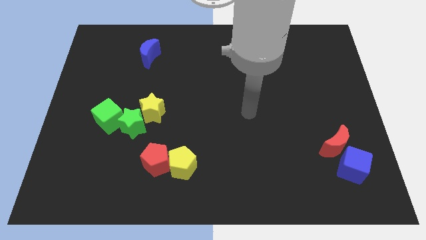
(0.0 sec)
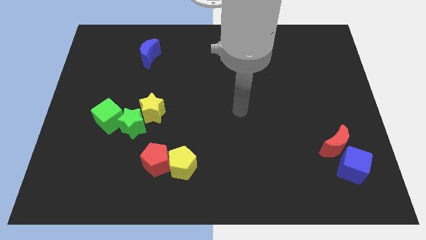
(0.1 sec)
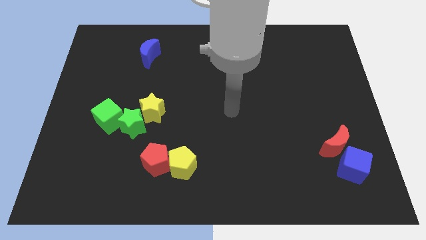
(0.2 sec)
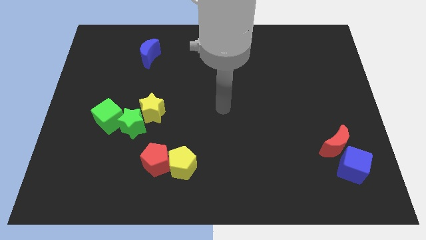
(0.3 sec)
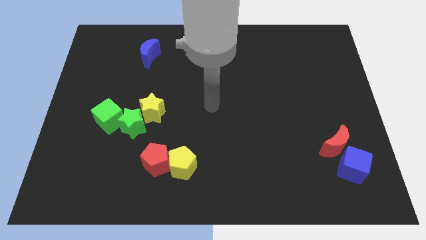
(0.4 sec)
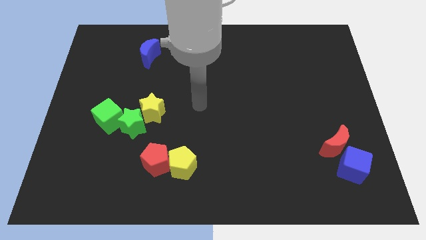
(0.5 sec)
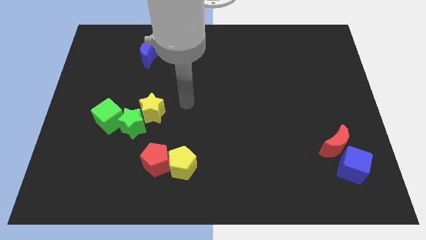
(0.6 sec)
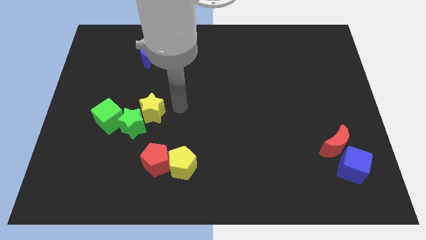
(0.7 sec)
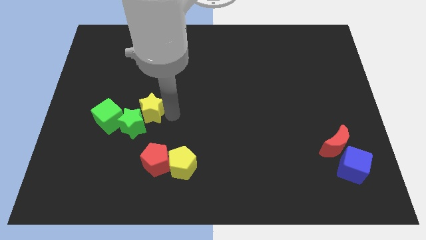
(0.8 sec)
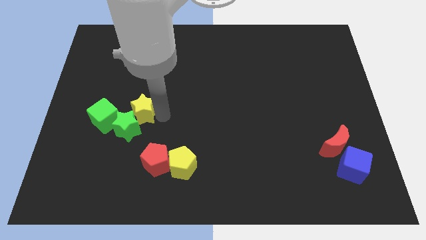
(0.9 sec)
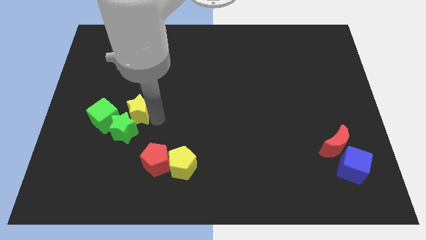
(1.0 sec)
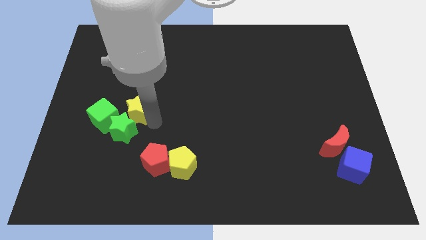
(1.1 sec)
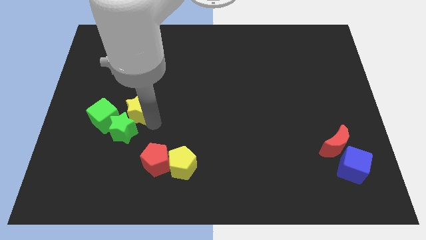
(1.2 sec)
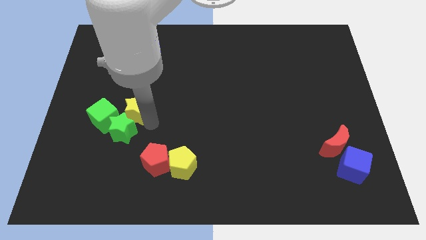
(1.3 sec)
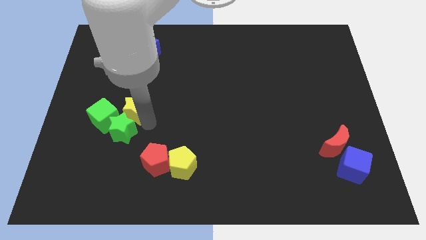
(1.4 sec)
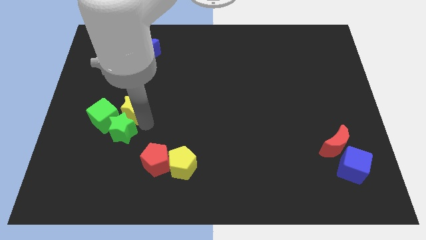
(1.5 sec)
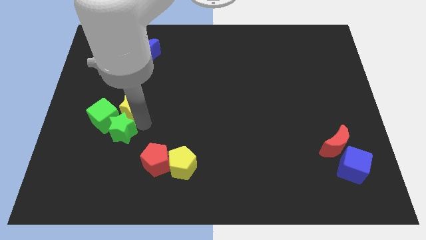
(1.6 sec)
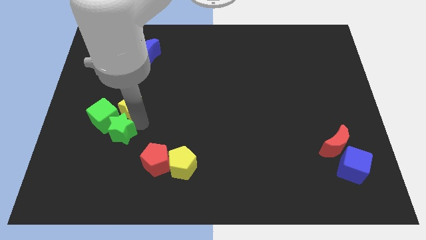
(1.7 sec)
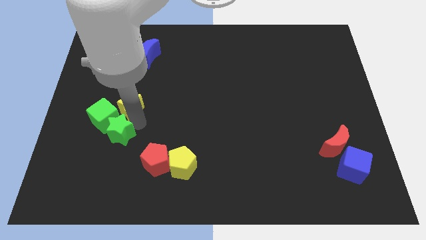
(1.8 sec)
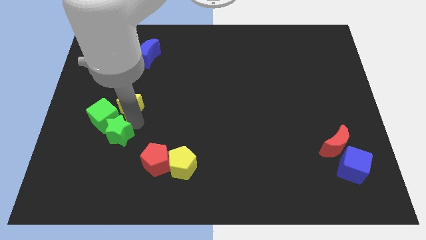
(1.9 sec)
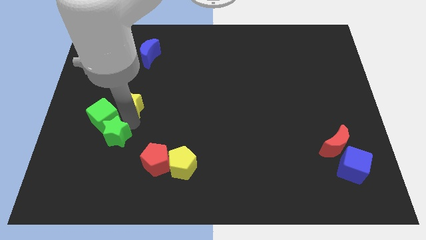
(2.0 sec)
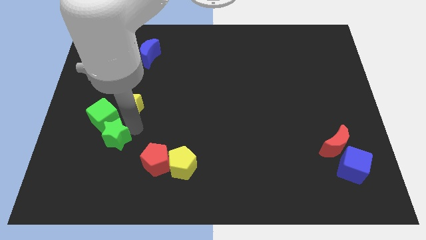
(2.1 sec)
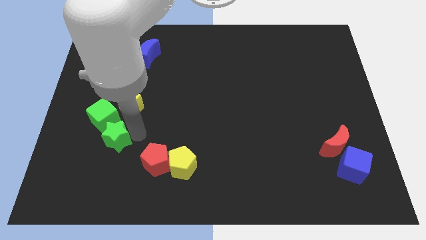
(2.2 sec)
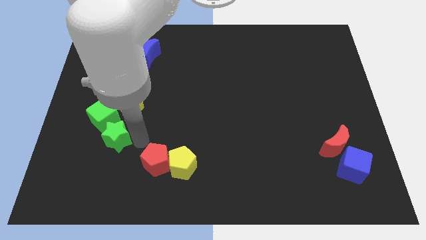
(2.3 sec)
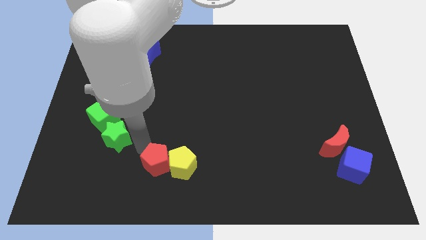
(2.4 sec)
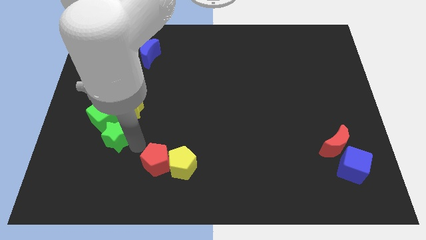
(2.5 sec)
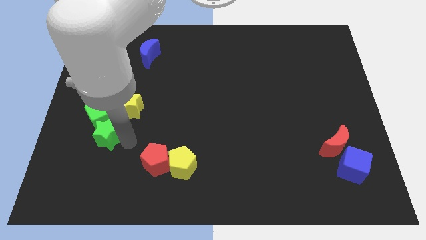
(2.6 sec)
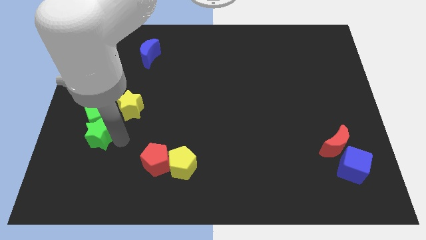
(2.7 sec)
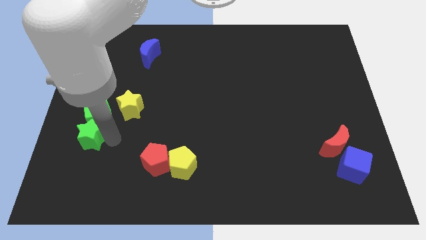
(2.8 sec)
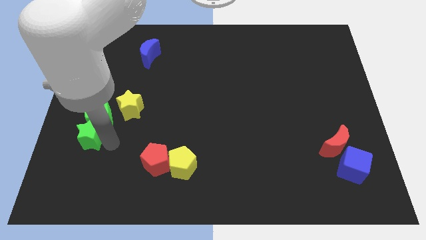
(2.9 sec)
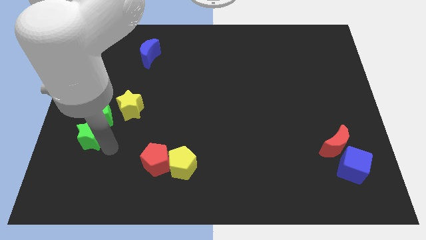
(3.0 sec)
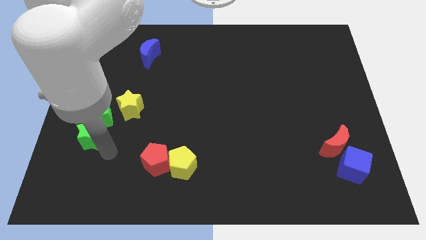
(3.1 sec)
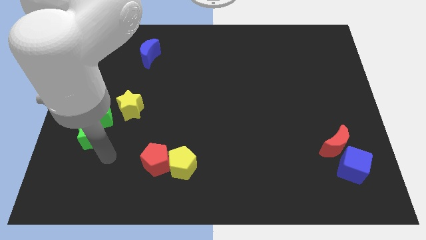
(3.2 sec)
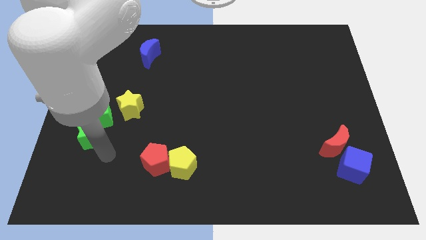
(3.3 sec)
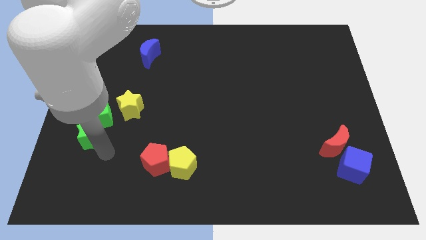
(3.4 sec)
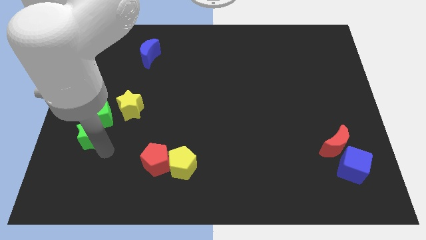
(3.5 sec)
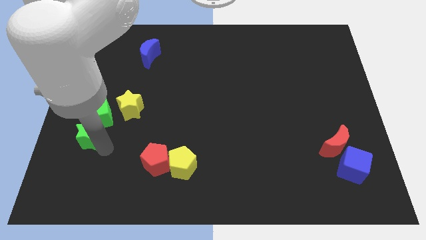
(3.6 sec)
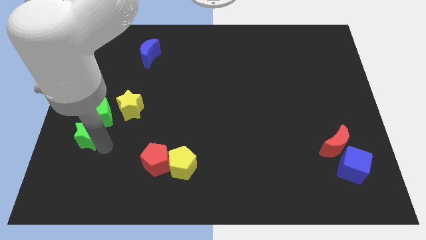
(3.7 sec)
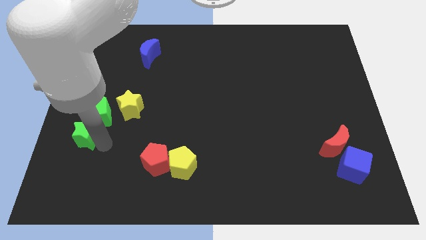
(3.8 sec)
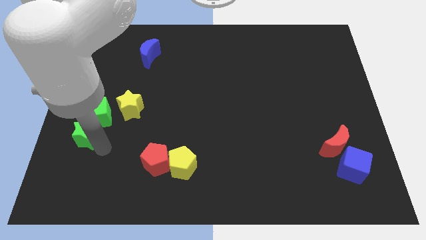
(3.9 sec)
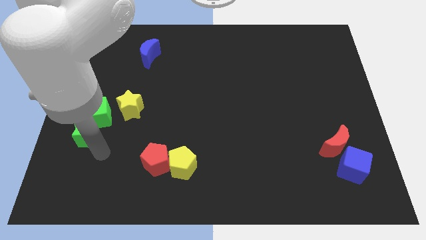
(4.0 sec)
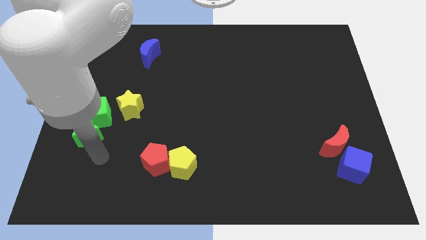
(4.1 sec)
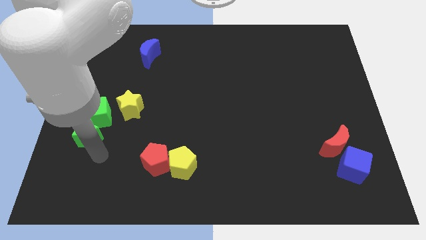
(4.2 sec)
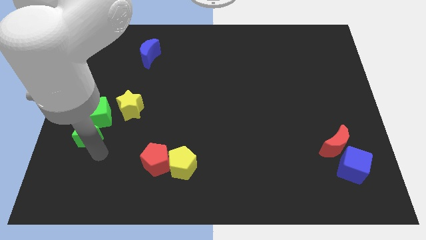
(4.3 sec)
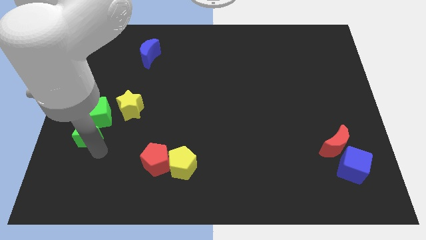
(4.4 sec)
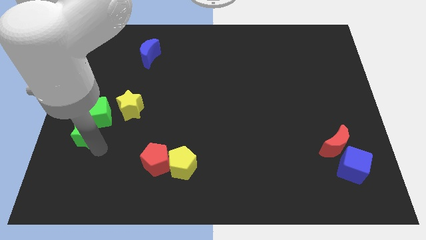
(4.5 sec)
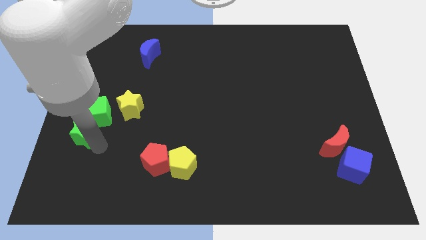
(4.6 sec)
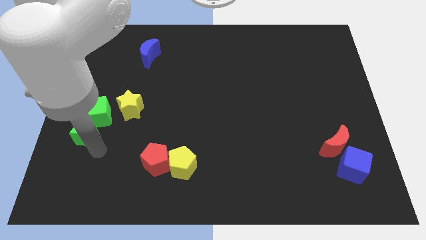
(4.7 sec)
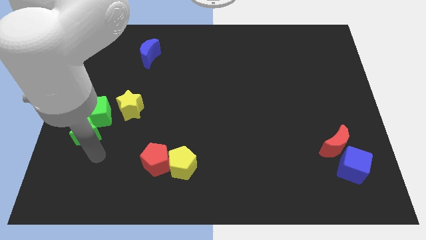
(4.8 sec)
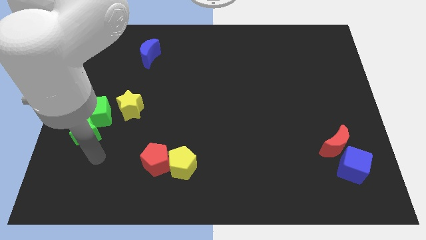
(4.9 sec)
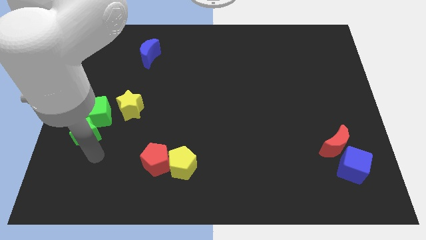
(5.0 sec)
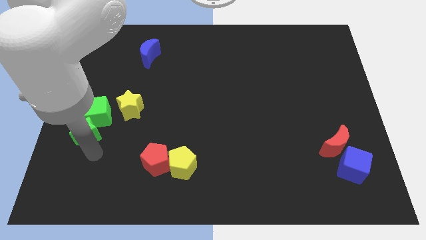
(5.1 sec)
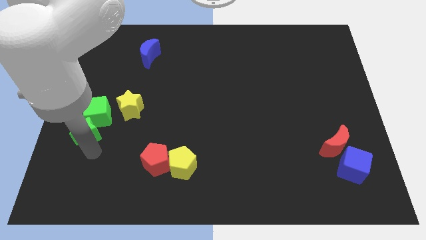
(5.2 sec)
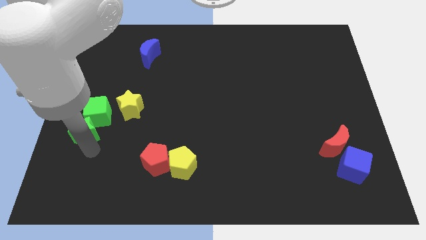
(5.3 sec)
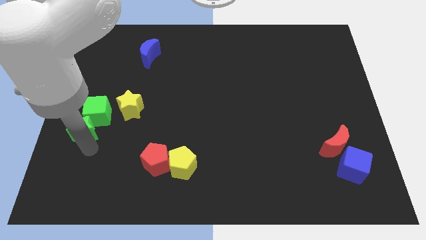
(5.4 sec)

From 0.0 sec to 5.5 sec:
move the green star to the left side

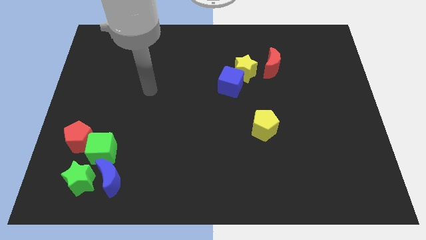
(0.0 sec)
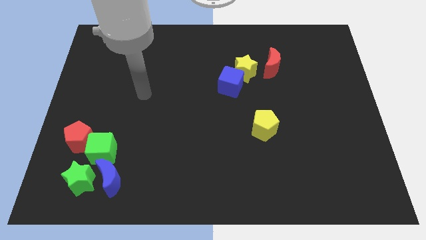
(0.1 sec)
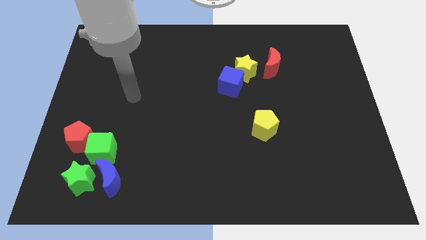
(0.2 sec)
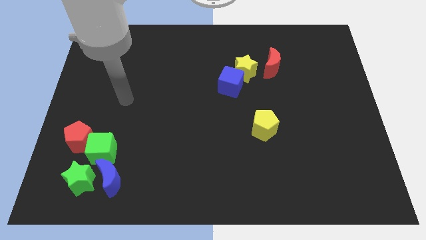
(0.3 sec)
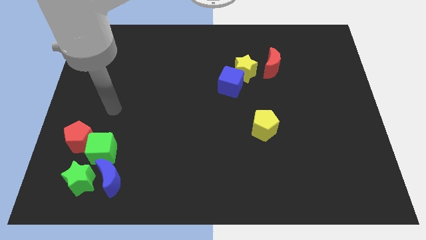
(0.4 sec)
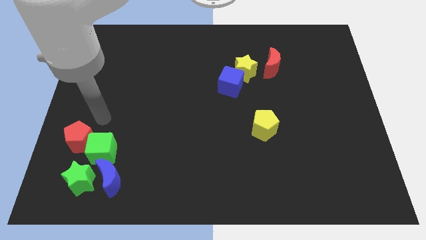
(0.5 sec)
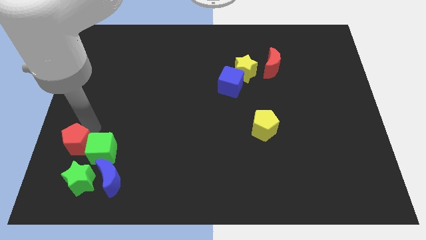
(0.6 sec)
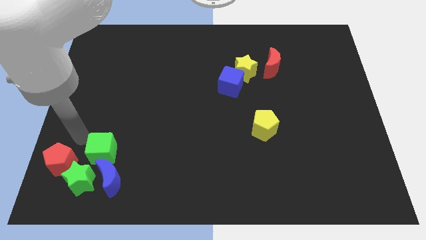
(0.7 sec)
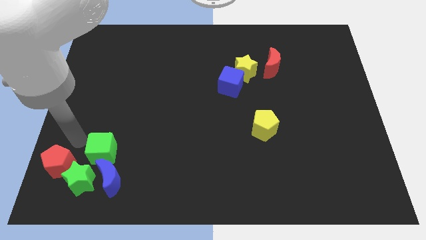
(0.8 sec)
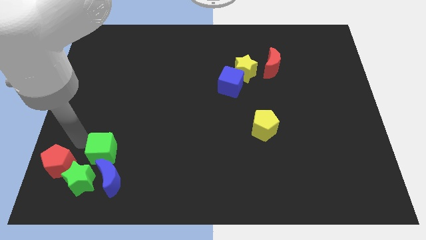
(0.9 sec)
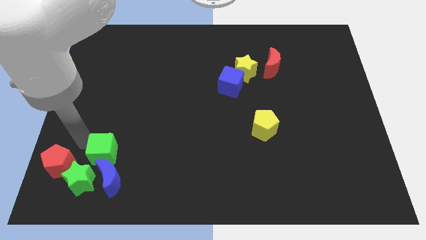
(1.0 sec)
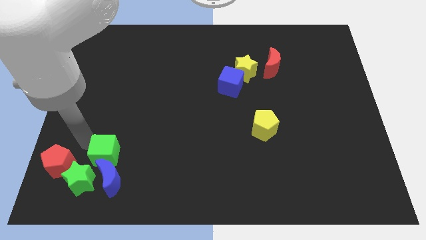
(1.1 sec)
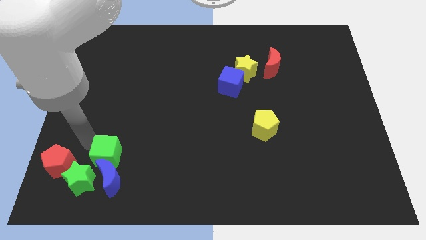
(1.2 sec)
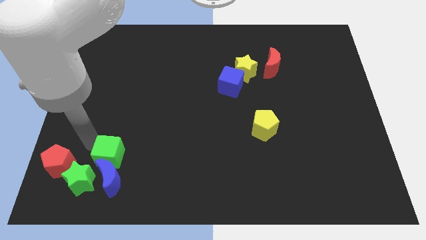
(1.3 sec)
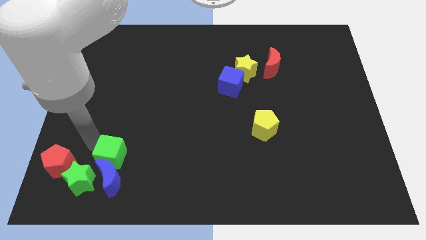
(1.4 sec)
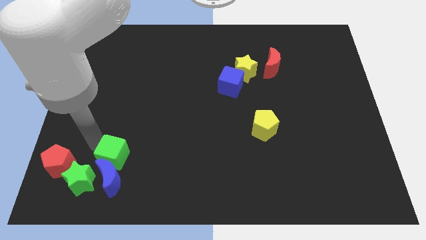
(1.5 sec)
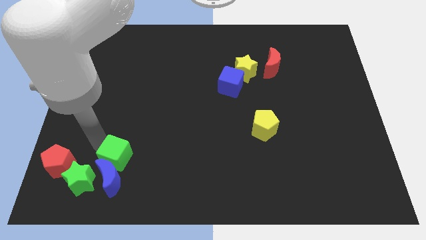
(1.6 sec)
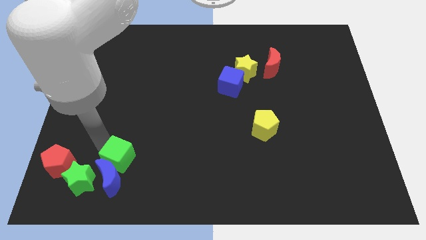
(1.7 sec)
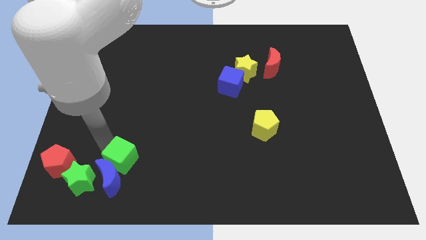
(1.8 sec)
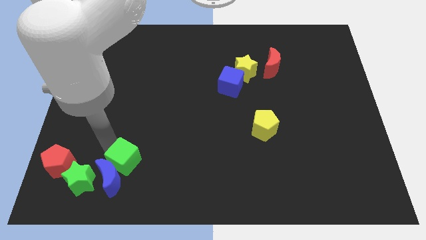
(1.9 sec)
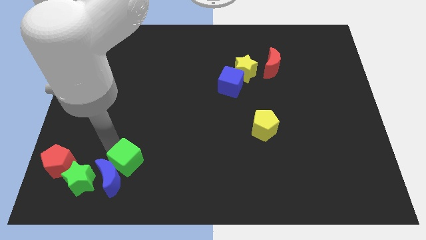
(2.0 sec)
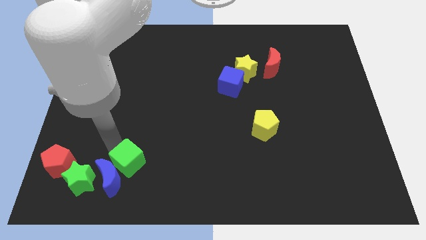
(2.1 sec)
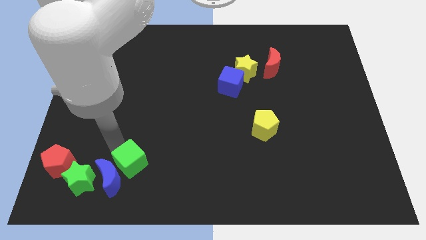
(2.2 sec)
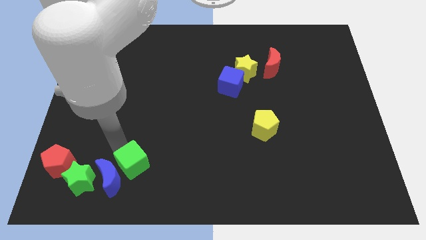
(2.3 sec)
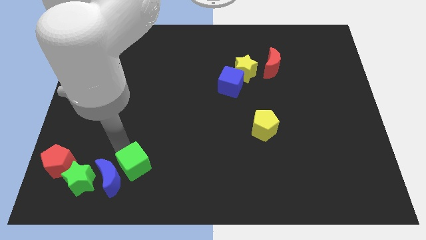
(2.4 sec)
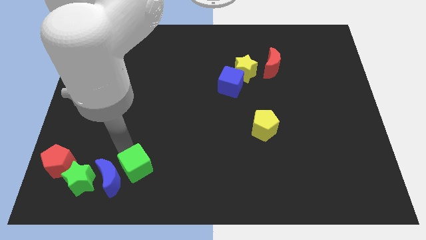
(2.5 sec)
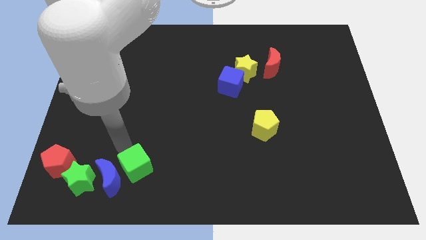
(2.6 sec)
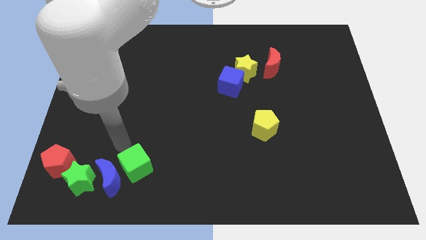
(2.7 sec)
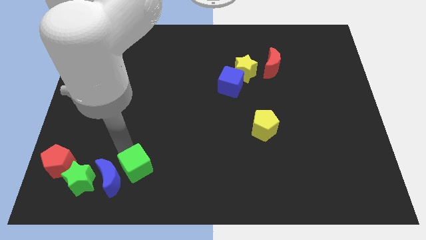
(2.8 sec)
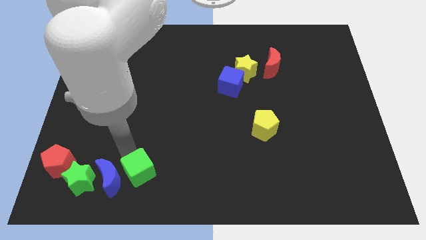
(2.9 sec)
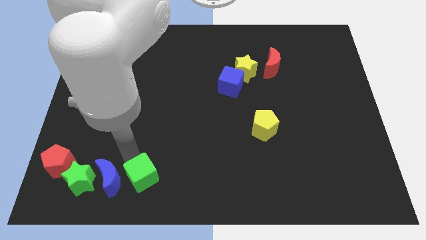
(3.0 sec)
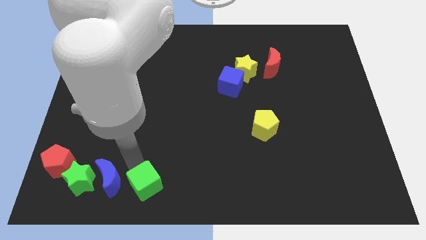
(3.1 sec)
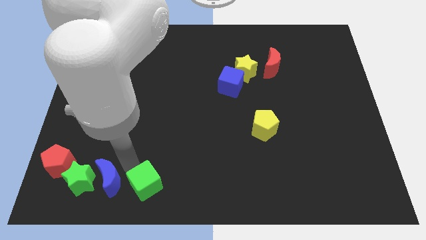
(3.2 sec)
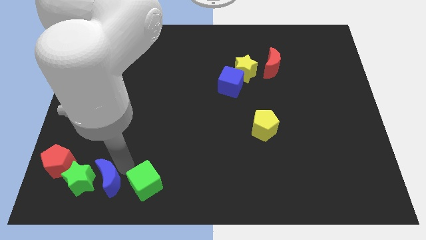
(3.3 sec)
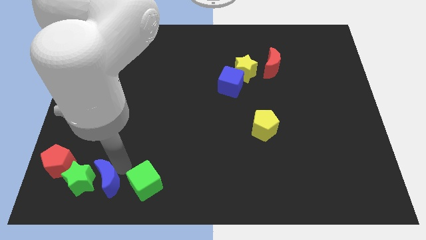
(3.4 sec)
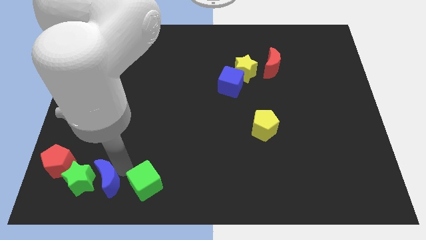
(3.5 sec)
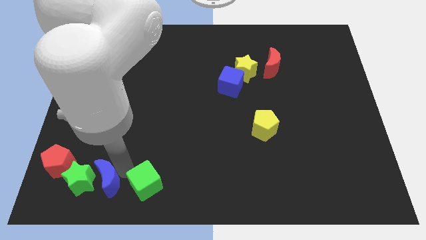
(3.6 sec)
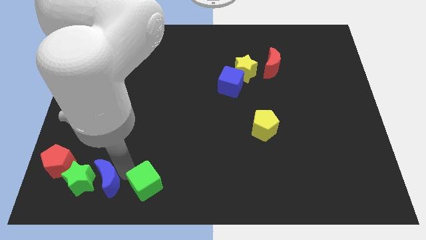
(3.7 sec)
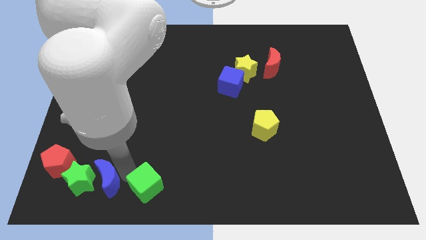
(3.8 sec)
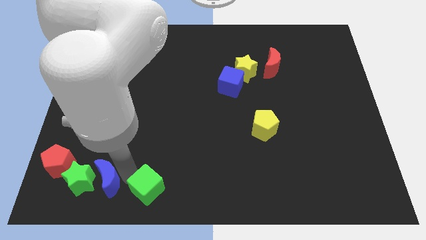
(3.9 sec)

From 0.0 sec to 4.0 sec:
push the green cube to the bottom side
